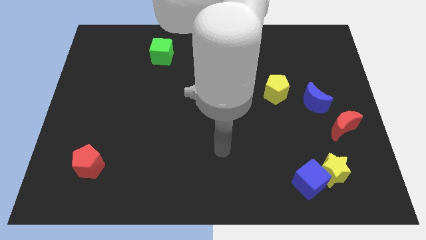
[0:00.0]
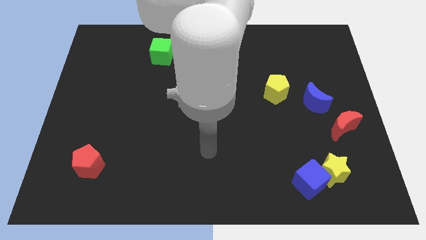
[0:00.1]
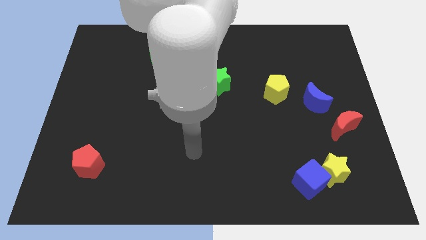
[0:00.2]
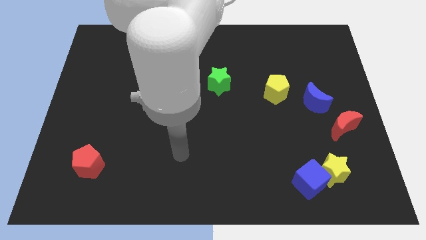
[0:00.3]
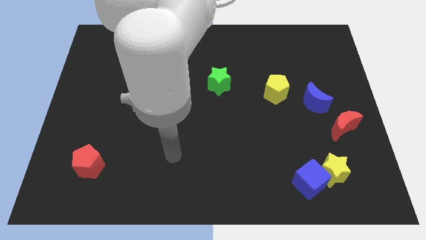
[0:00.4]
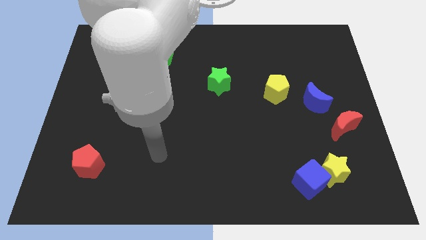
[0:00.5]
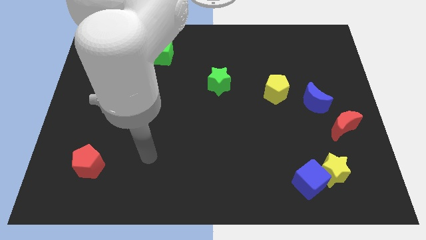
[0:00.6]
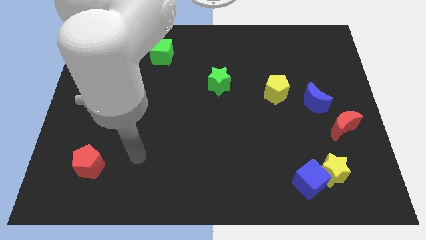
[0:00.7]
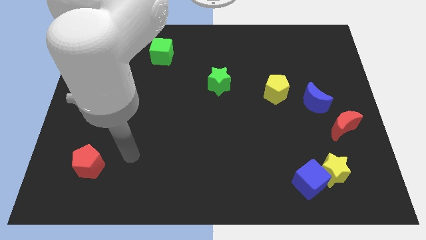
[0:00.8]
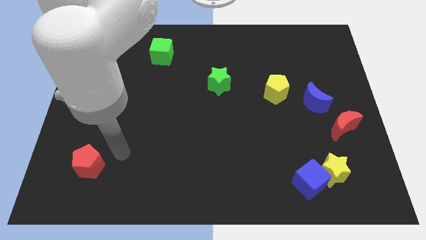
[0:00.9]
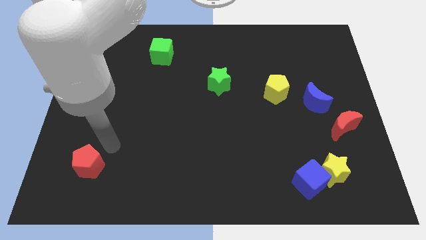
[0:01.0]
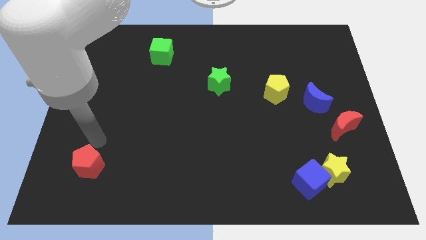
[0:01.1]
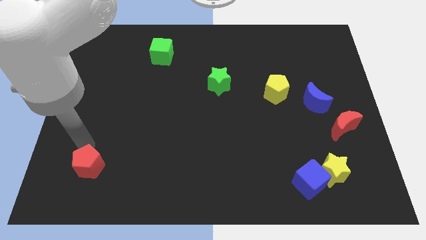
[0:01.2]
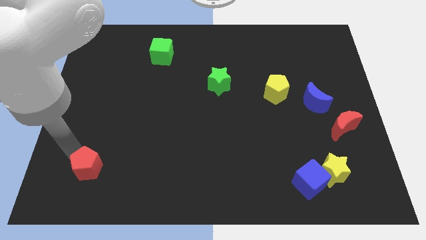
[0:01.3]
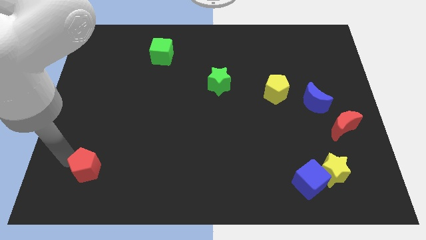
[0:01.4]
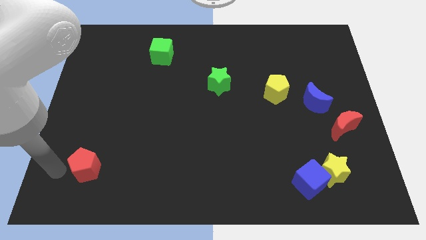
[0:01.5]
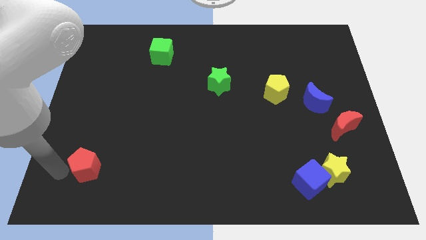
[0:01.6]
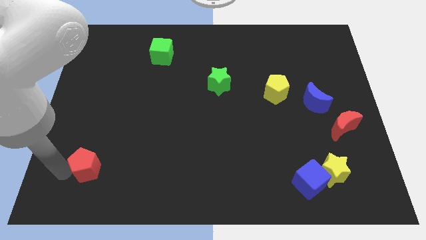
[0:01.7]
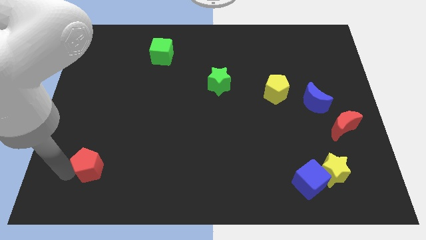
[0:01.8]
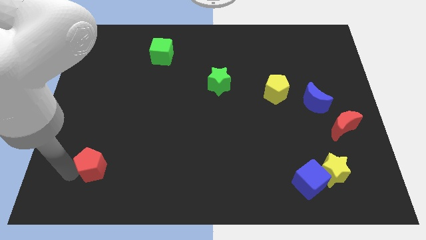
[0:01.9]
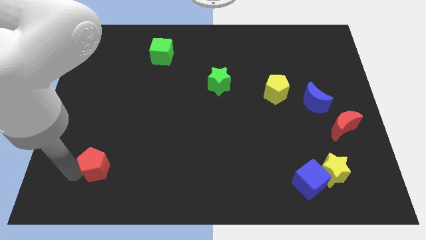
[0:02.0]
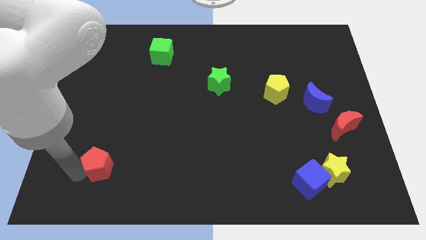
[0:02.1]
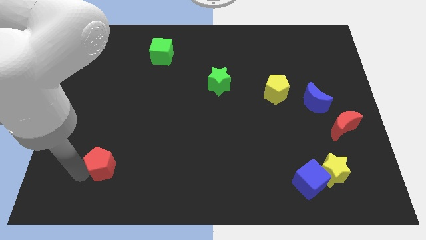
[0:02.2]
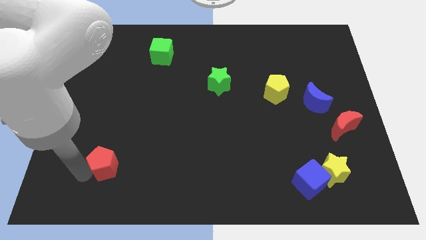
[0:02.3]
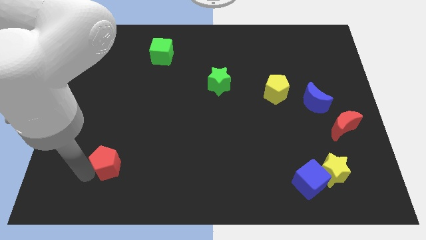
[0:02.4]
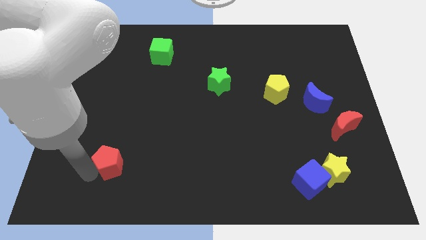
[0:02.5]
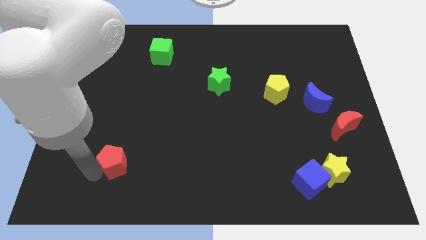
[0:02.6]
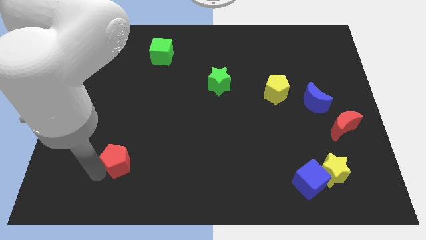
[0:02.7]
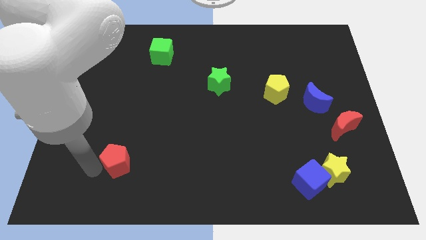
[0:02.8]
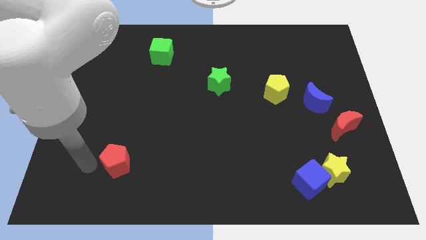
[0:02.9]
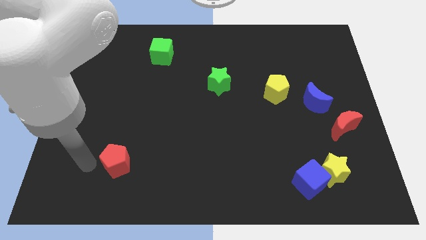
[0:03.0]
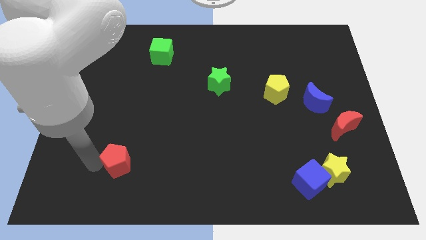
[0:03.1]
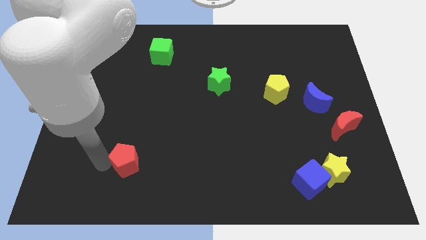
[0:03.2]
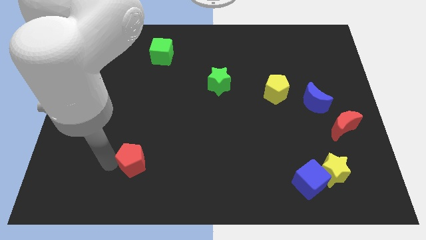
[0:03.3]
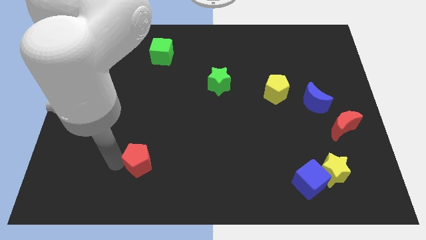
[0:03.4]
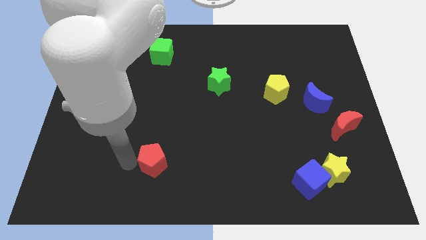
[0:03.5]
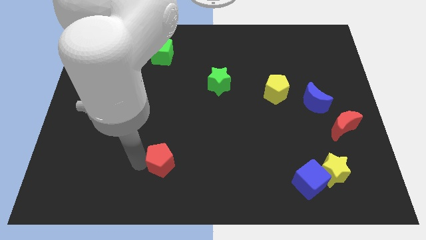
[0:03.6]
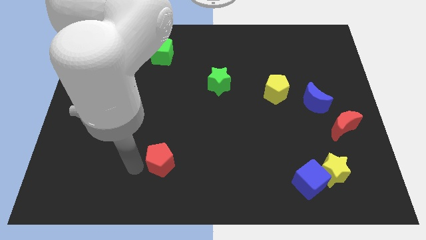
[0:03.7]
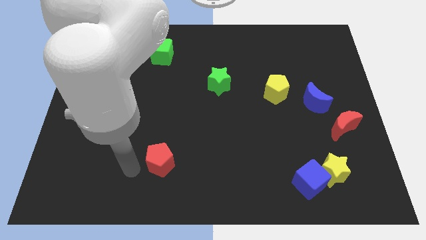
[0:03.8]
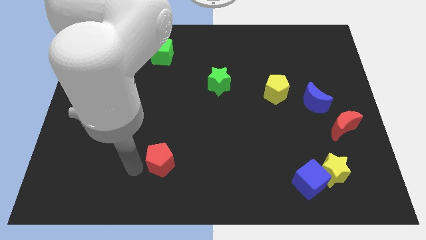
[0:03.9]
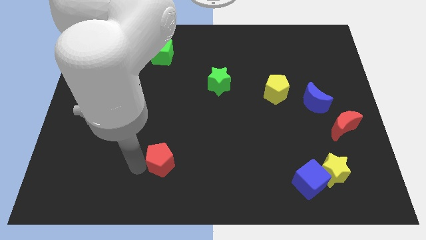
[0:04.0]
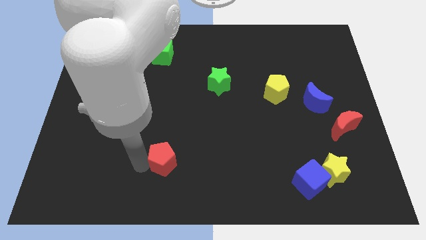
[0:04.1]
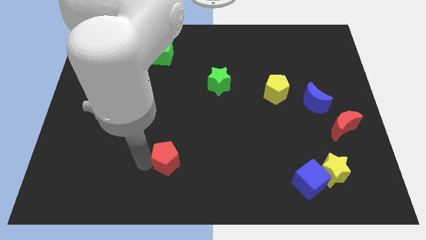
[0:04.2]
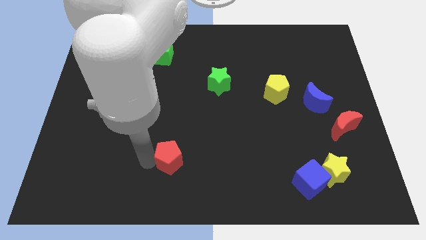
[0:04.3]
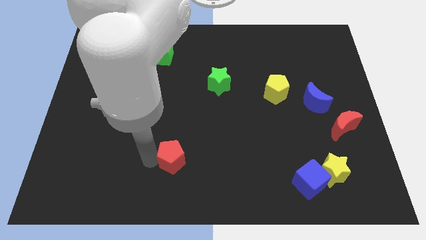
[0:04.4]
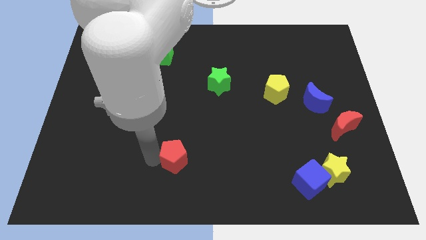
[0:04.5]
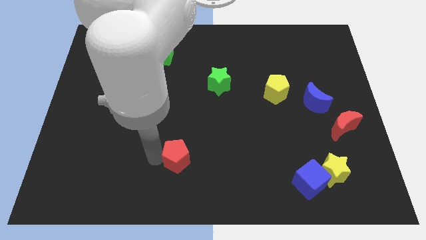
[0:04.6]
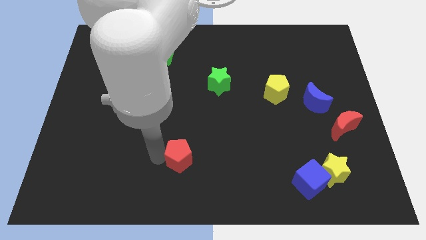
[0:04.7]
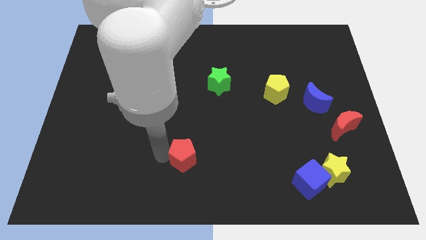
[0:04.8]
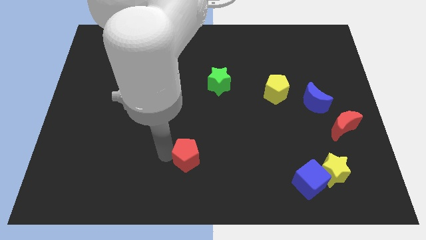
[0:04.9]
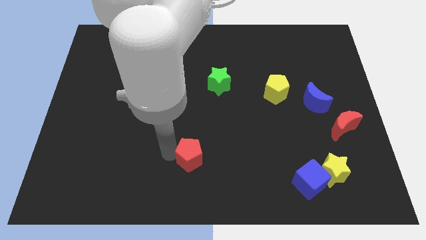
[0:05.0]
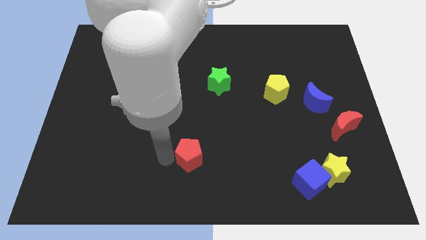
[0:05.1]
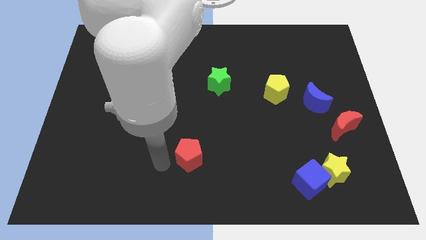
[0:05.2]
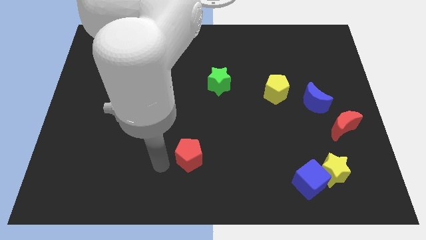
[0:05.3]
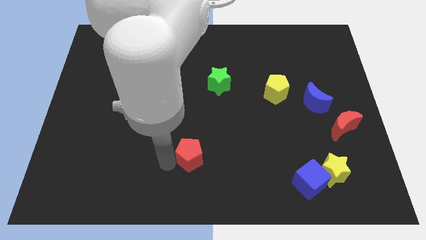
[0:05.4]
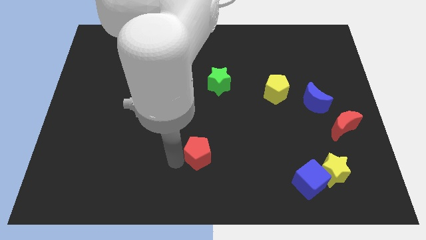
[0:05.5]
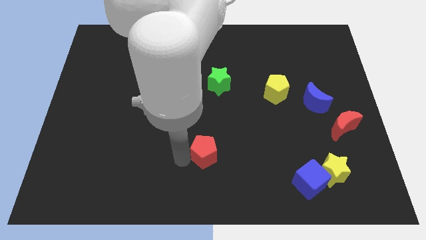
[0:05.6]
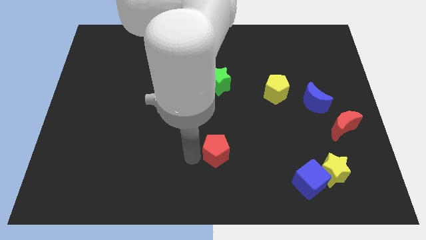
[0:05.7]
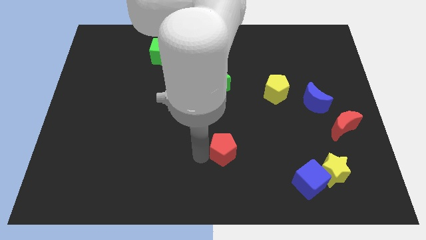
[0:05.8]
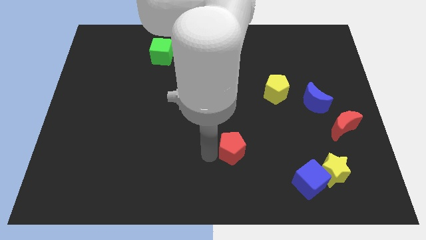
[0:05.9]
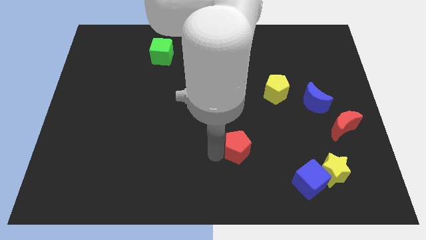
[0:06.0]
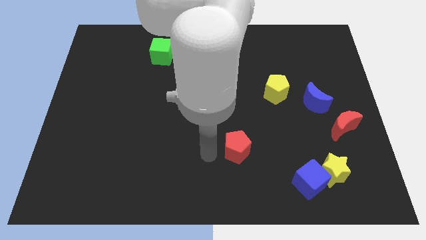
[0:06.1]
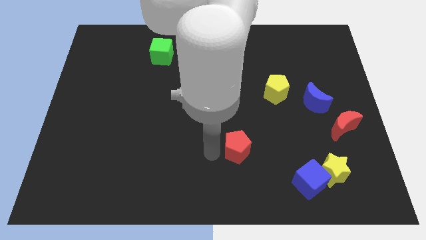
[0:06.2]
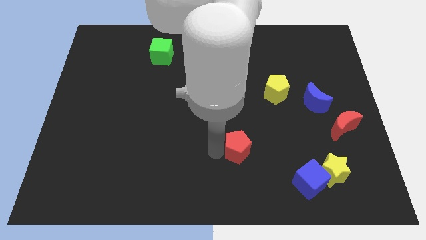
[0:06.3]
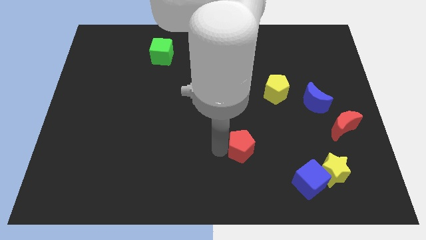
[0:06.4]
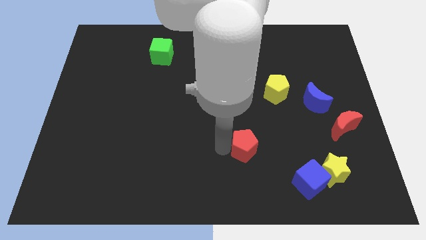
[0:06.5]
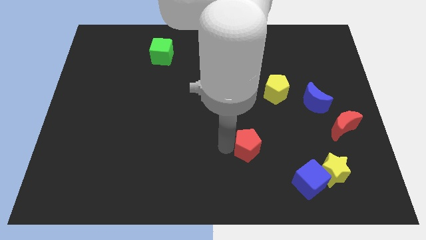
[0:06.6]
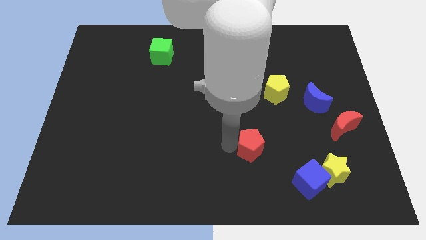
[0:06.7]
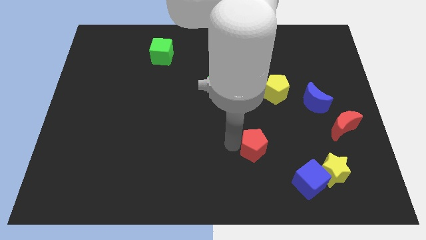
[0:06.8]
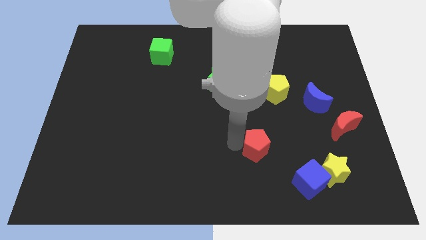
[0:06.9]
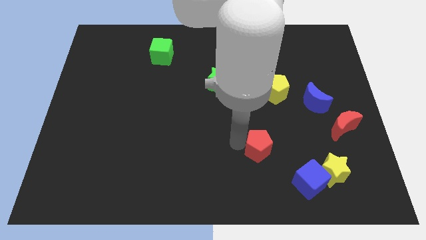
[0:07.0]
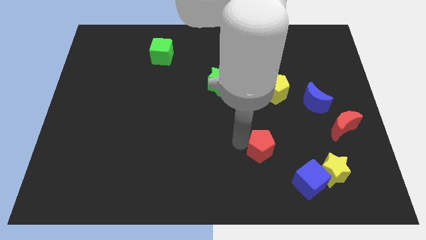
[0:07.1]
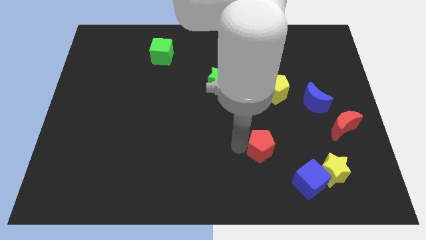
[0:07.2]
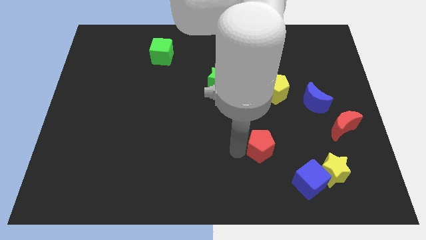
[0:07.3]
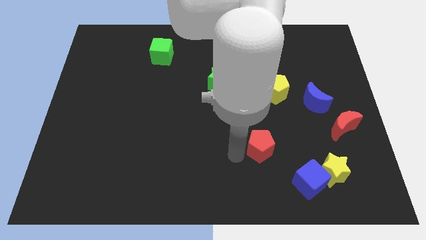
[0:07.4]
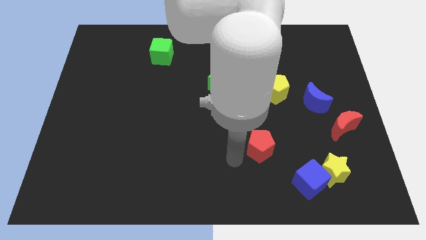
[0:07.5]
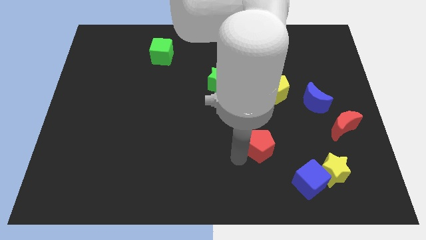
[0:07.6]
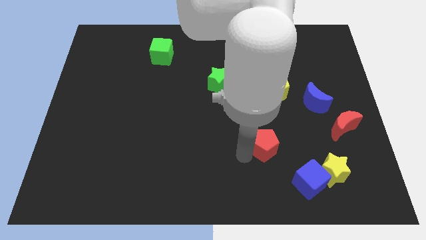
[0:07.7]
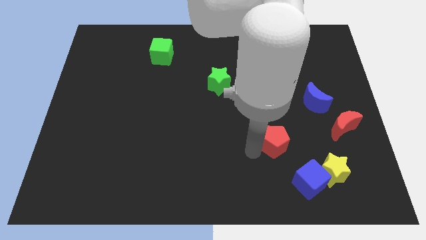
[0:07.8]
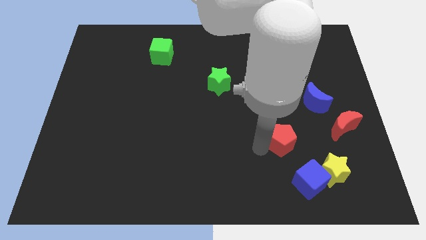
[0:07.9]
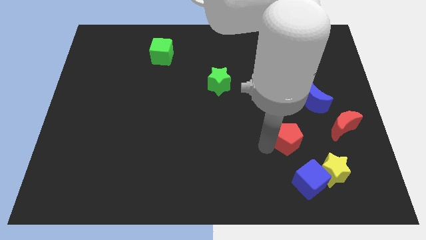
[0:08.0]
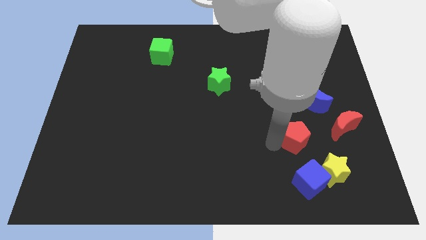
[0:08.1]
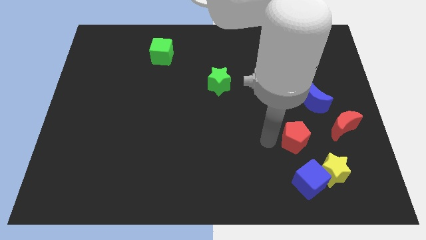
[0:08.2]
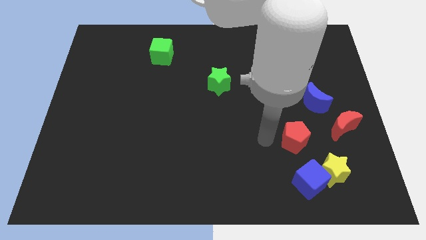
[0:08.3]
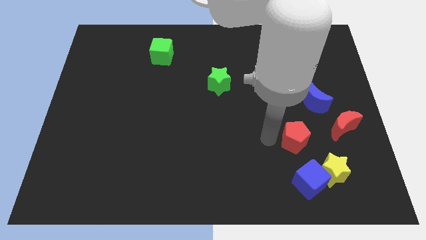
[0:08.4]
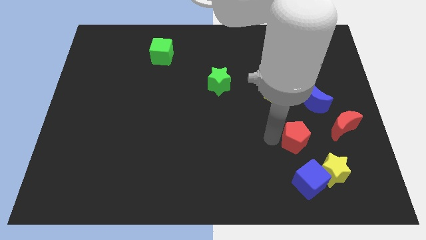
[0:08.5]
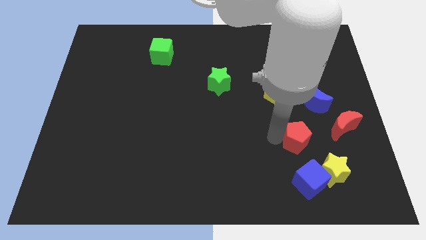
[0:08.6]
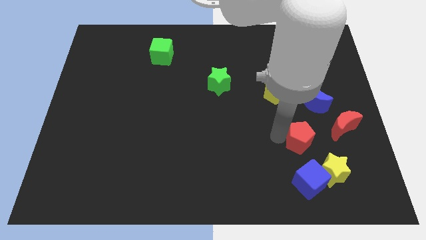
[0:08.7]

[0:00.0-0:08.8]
put the red pentagon below the blue moon
